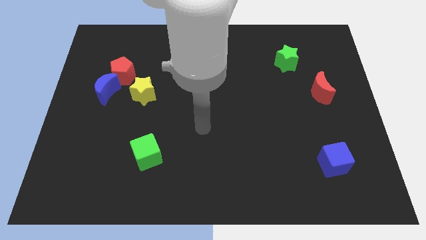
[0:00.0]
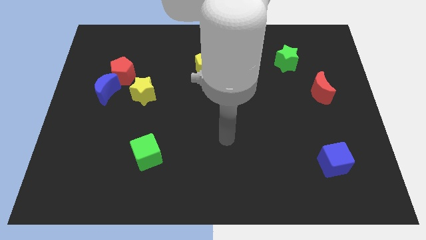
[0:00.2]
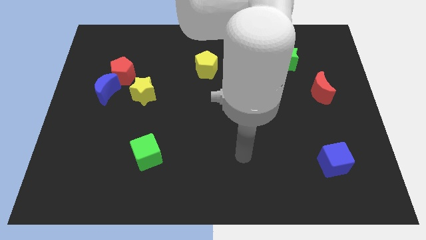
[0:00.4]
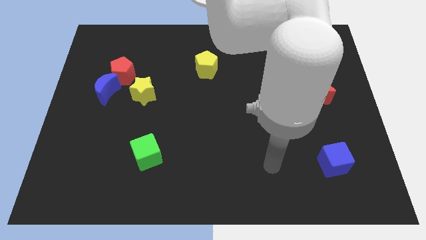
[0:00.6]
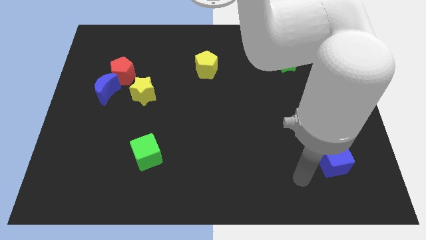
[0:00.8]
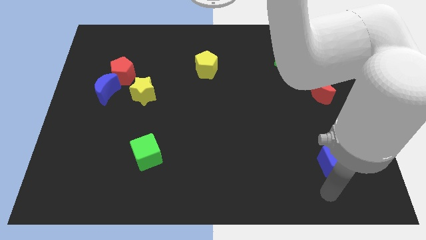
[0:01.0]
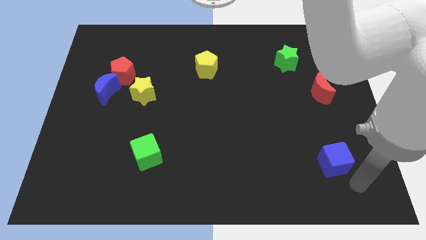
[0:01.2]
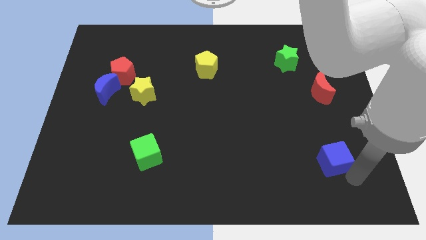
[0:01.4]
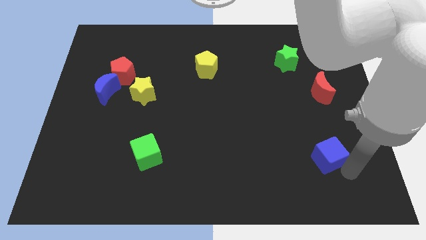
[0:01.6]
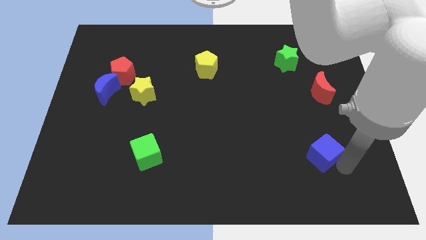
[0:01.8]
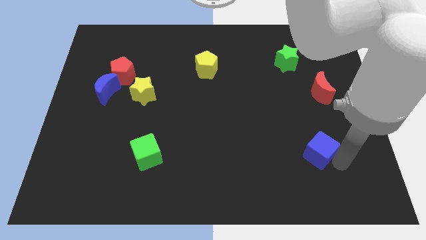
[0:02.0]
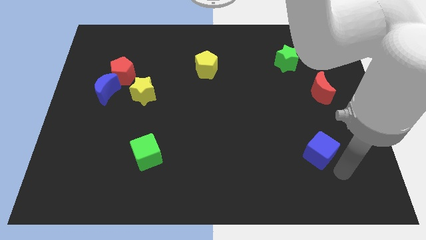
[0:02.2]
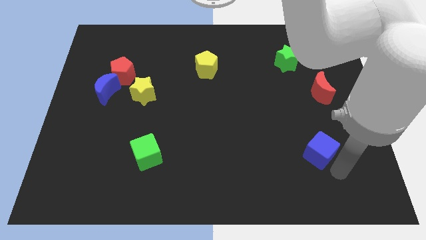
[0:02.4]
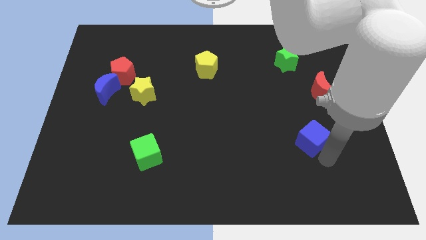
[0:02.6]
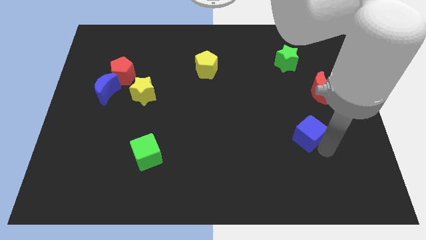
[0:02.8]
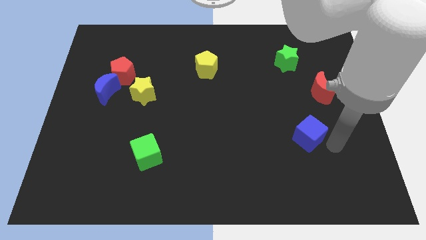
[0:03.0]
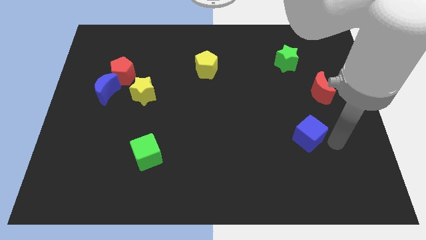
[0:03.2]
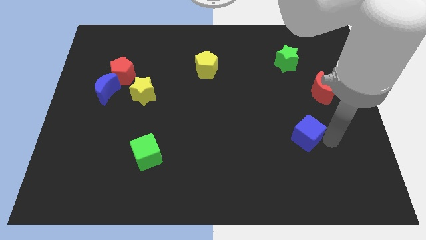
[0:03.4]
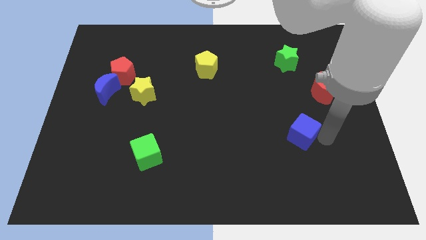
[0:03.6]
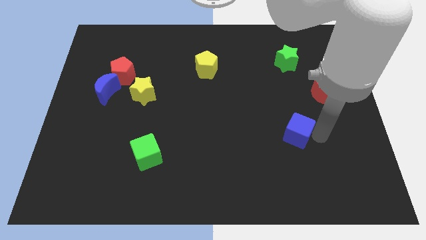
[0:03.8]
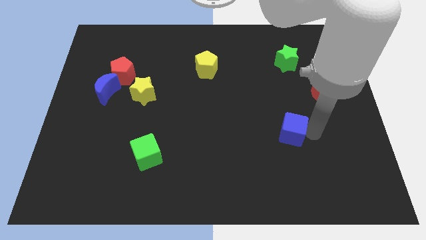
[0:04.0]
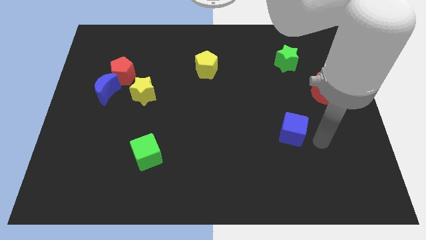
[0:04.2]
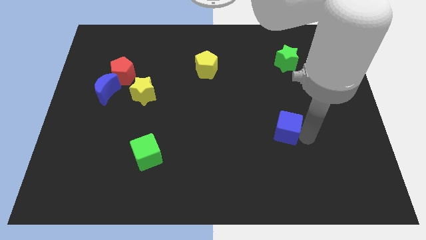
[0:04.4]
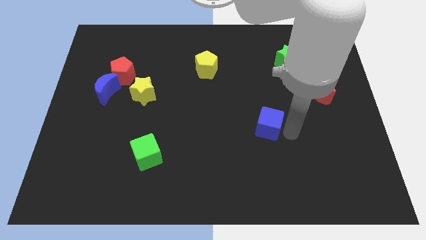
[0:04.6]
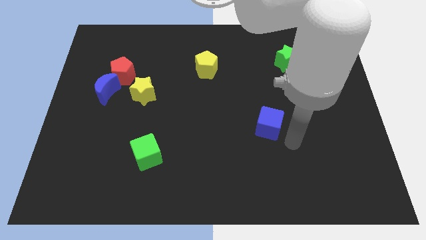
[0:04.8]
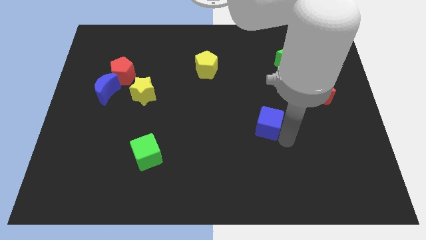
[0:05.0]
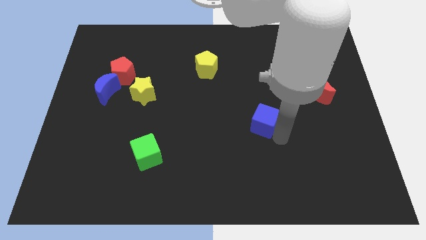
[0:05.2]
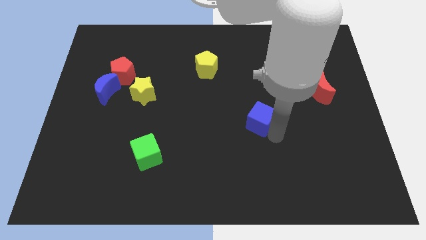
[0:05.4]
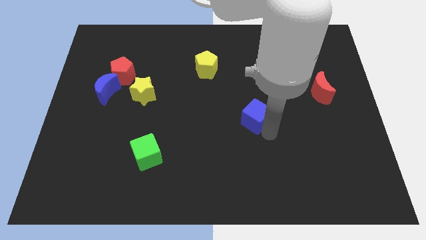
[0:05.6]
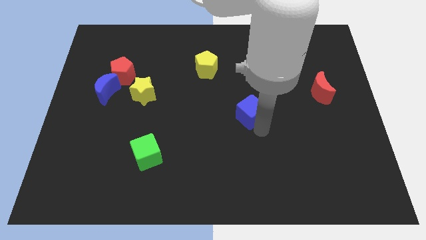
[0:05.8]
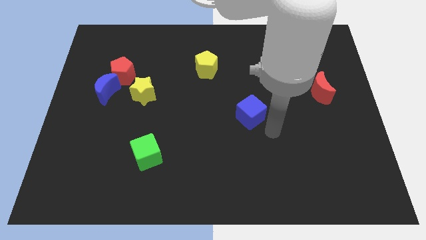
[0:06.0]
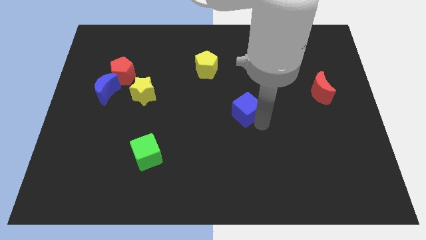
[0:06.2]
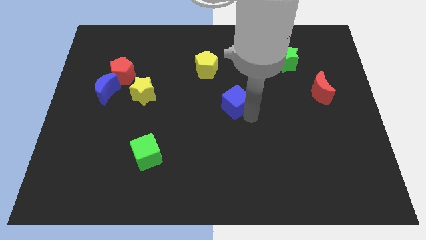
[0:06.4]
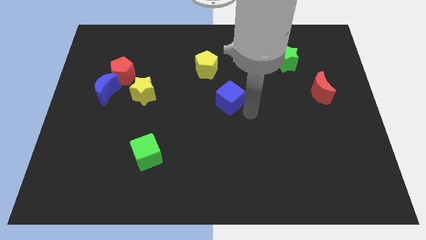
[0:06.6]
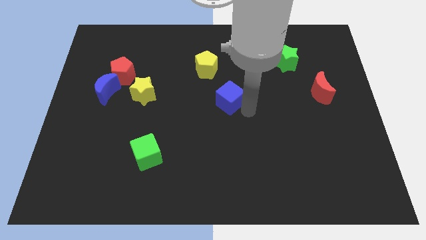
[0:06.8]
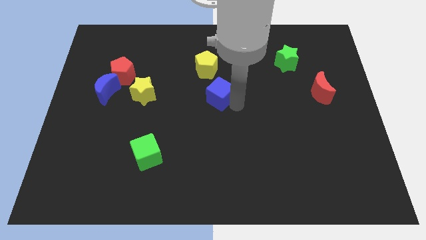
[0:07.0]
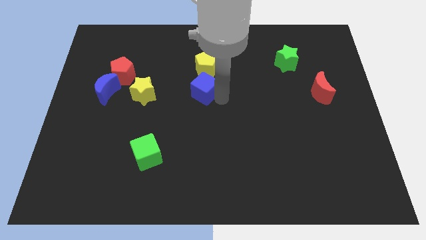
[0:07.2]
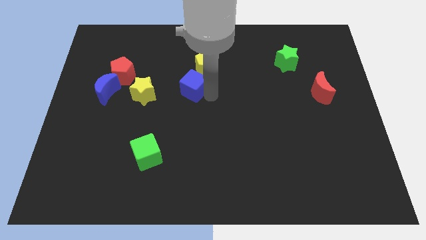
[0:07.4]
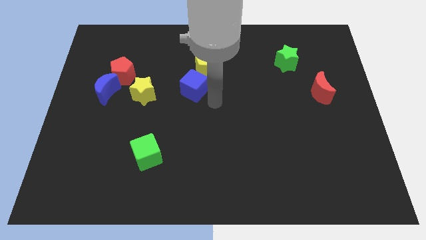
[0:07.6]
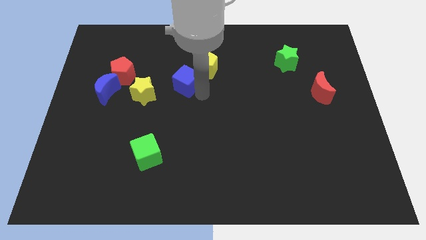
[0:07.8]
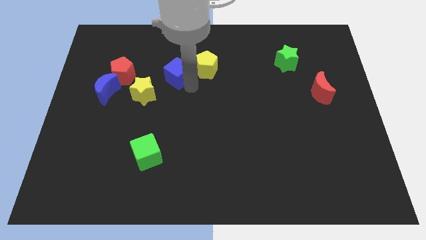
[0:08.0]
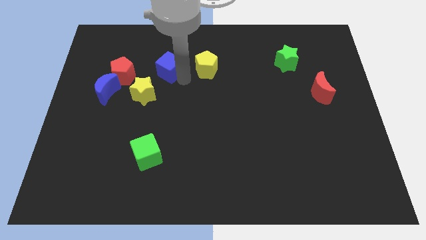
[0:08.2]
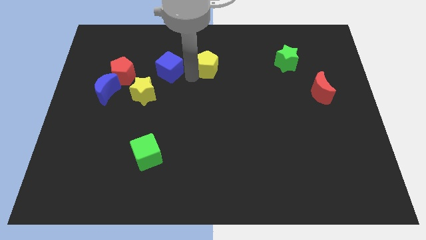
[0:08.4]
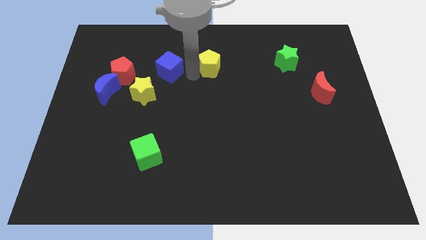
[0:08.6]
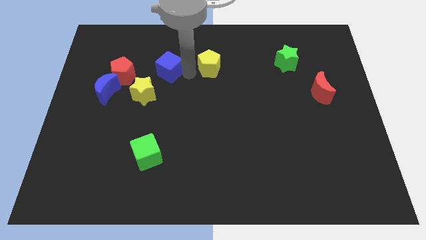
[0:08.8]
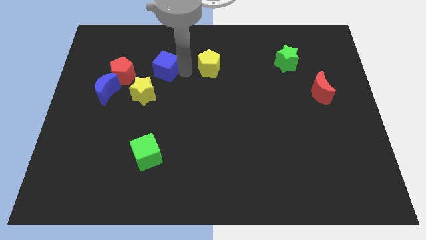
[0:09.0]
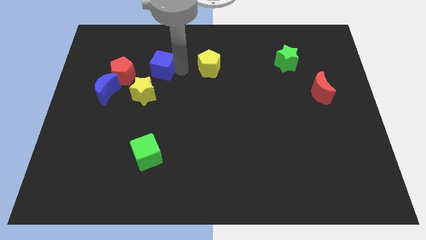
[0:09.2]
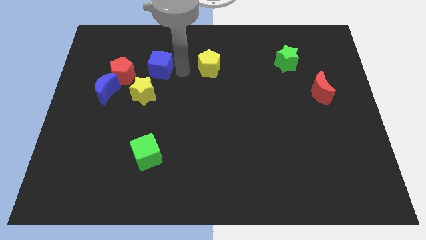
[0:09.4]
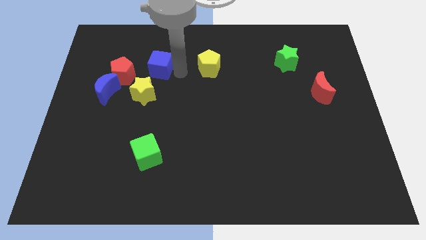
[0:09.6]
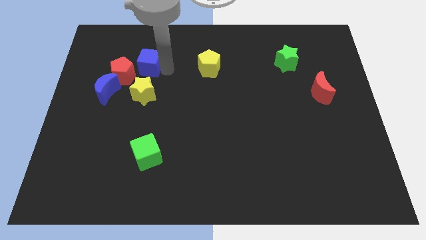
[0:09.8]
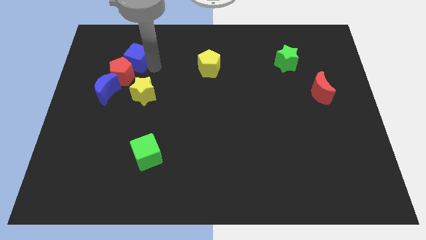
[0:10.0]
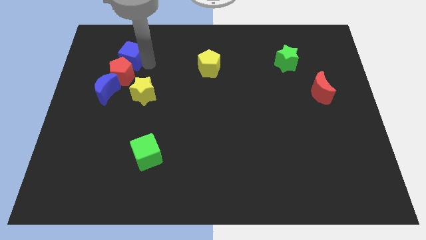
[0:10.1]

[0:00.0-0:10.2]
move the blue cube above the blue moon

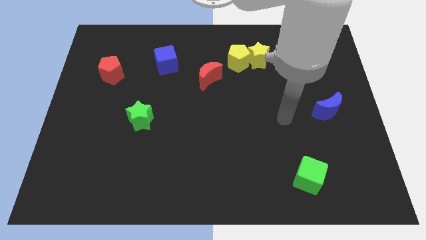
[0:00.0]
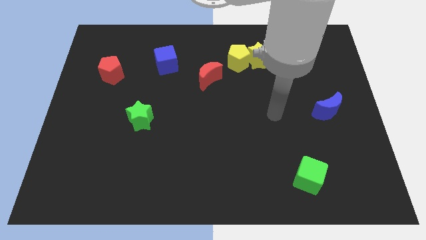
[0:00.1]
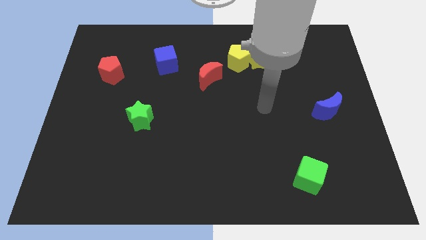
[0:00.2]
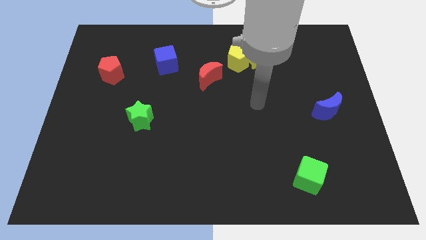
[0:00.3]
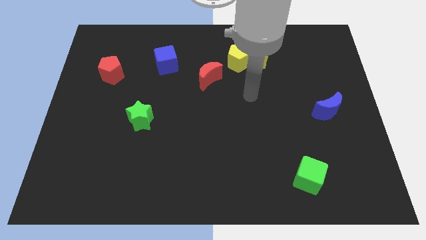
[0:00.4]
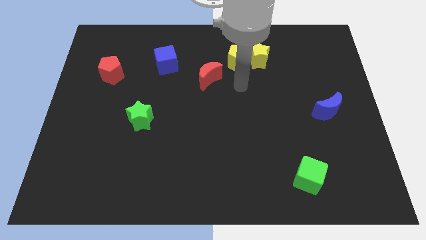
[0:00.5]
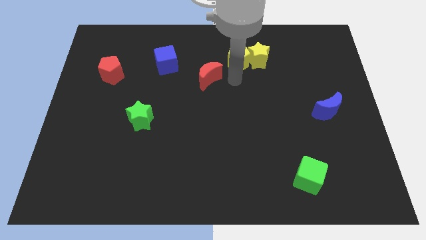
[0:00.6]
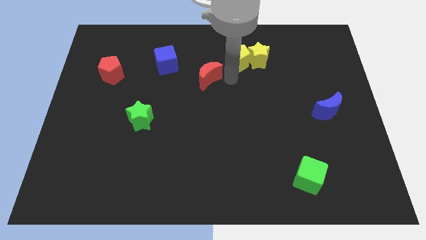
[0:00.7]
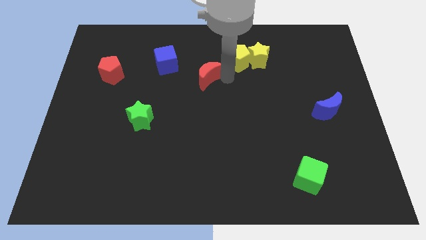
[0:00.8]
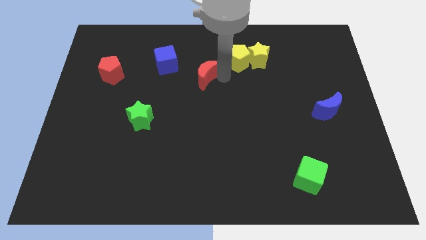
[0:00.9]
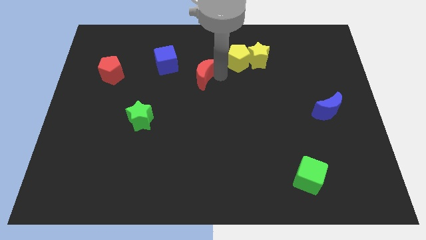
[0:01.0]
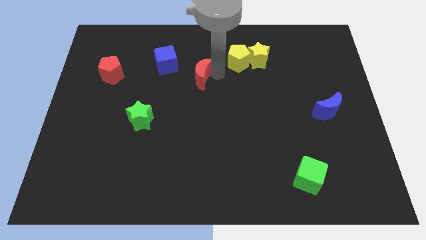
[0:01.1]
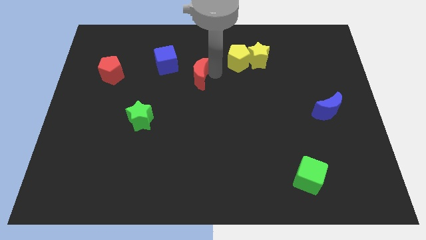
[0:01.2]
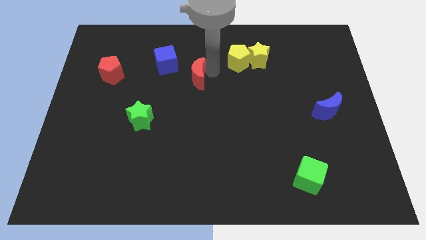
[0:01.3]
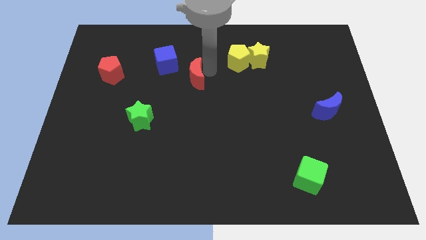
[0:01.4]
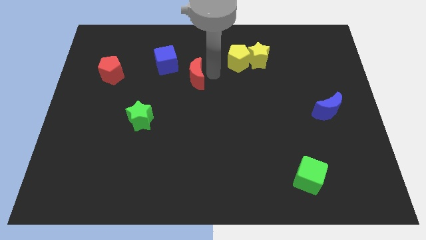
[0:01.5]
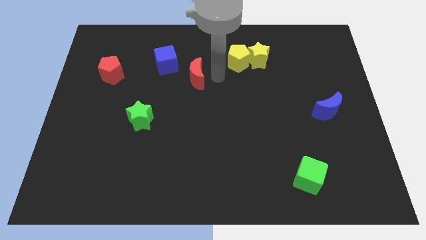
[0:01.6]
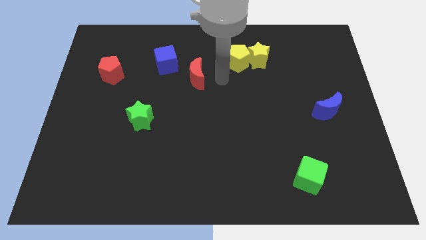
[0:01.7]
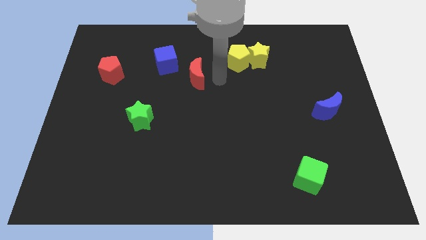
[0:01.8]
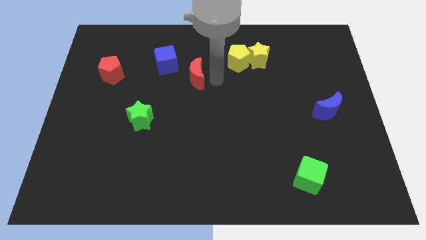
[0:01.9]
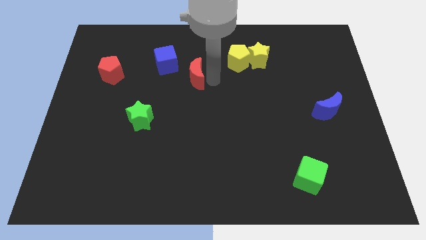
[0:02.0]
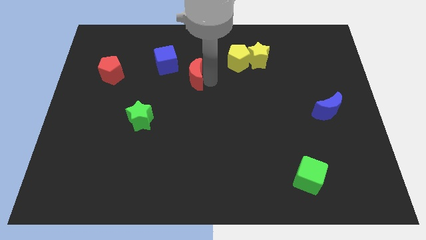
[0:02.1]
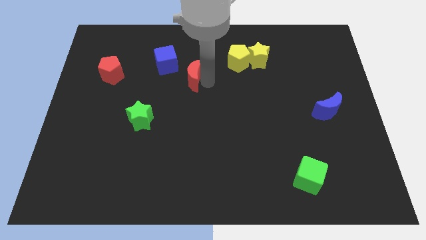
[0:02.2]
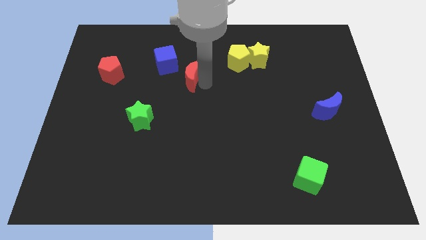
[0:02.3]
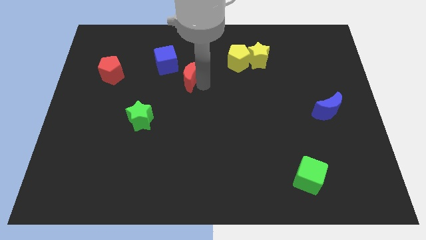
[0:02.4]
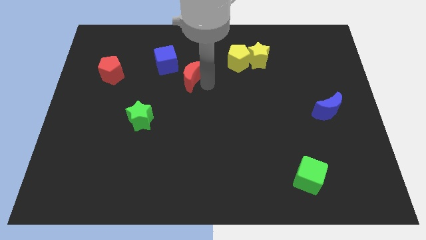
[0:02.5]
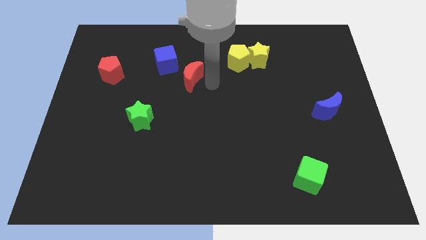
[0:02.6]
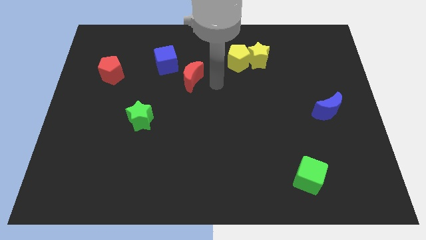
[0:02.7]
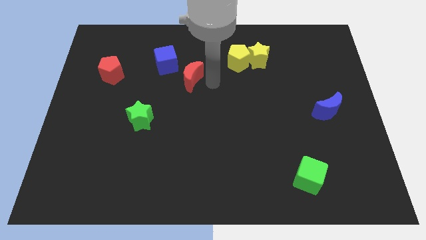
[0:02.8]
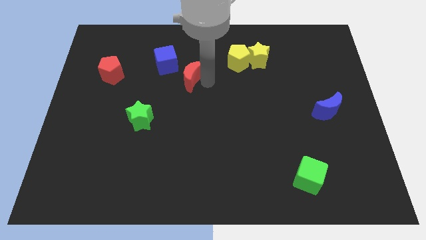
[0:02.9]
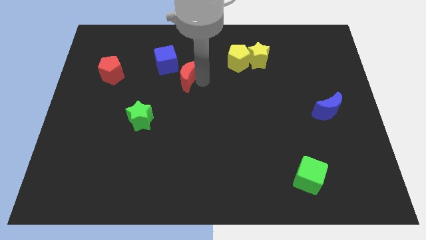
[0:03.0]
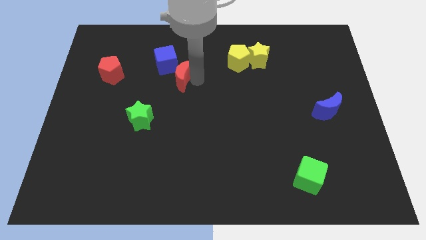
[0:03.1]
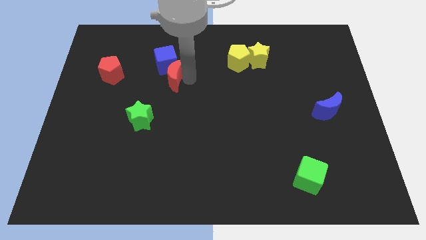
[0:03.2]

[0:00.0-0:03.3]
put the red moon to the right of the red pentagon
